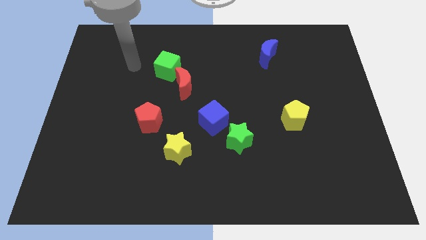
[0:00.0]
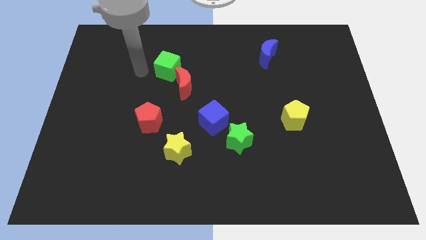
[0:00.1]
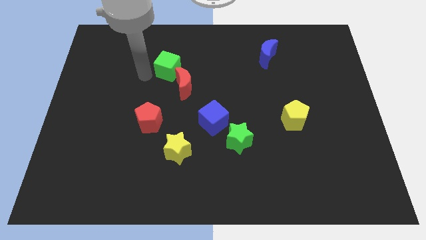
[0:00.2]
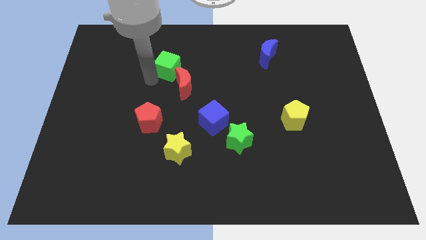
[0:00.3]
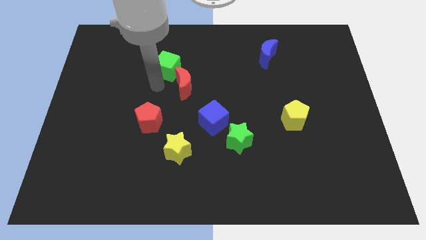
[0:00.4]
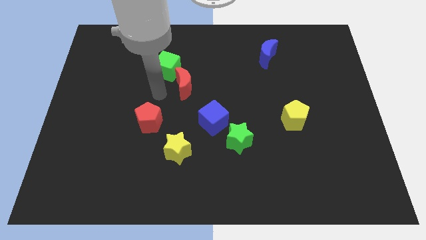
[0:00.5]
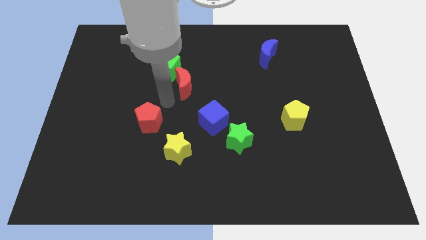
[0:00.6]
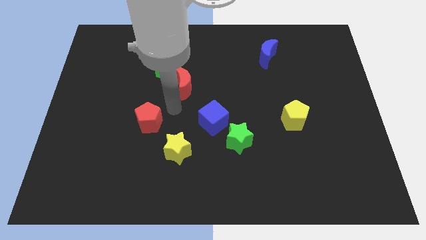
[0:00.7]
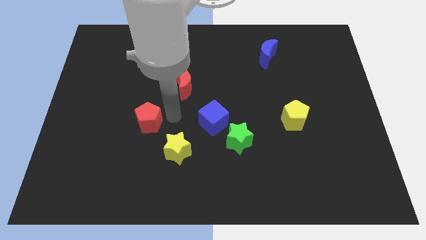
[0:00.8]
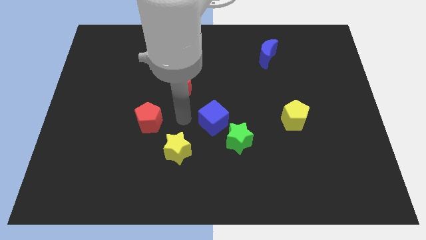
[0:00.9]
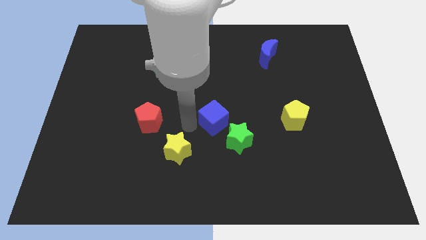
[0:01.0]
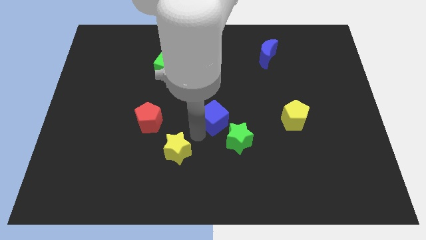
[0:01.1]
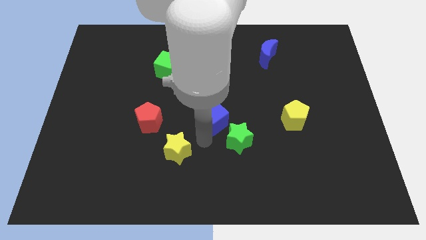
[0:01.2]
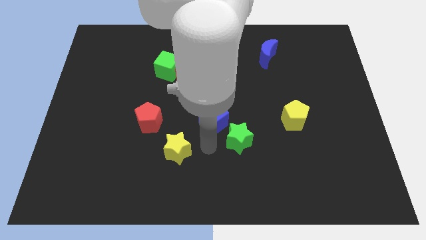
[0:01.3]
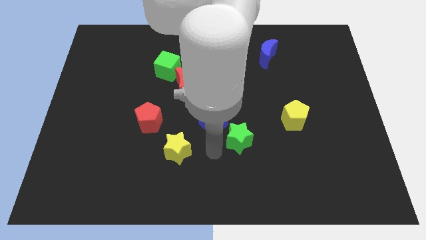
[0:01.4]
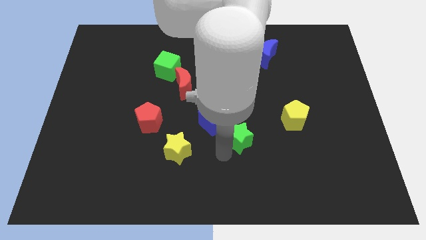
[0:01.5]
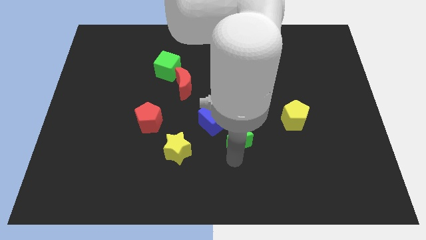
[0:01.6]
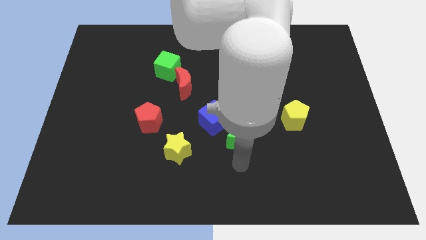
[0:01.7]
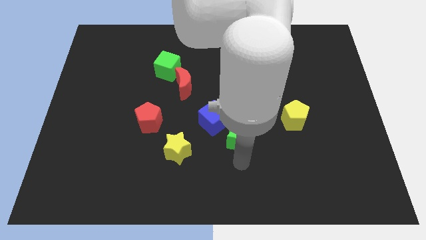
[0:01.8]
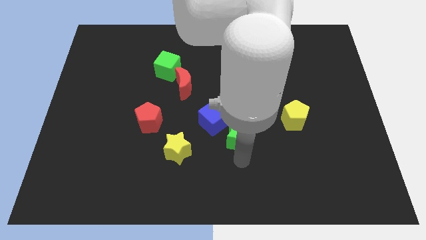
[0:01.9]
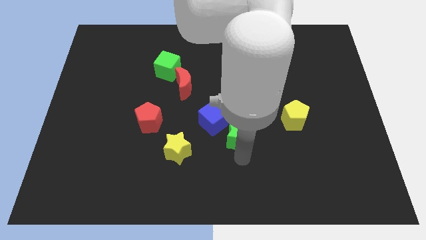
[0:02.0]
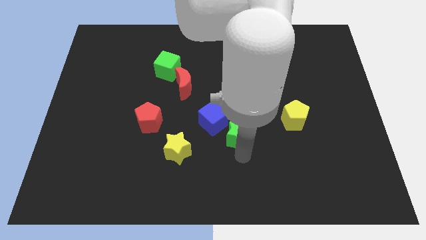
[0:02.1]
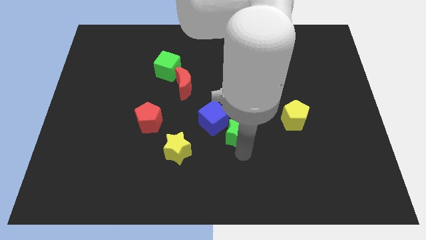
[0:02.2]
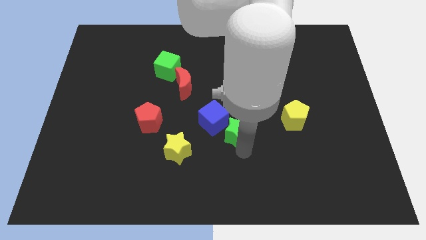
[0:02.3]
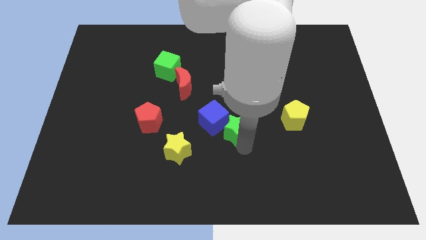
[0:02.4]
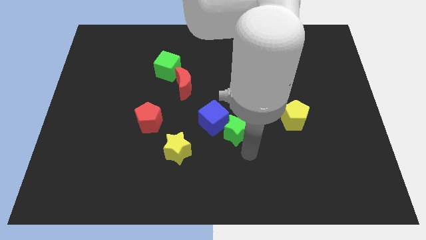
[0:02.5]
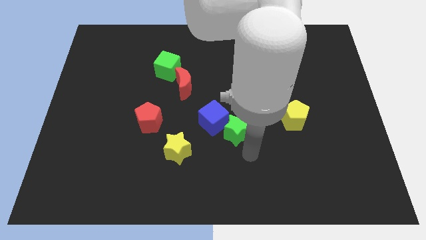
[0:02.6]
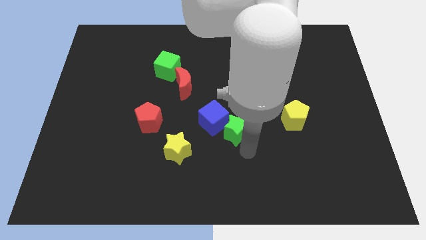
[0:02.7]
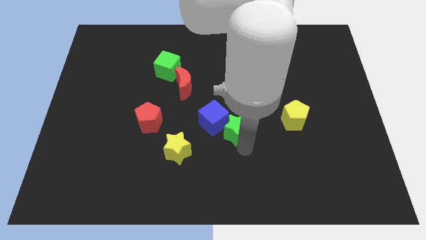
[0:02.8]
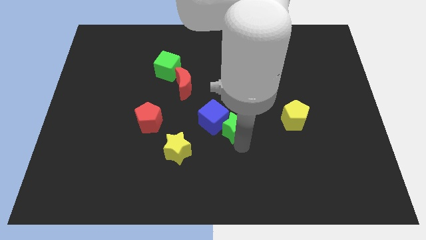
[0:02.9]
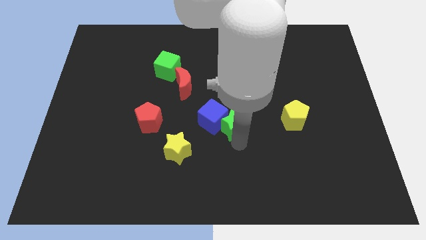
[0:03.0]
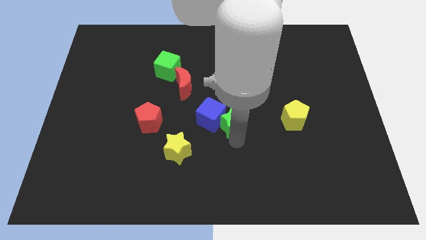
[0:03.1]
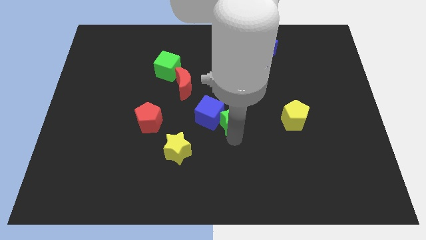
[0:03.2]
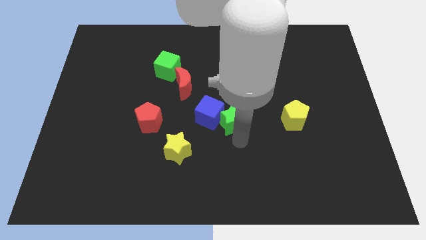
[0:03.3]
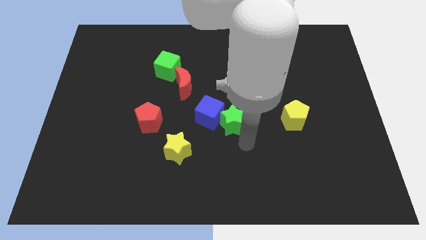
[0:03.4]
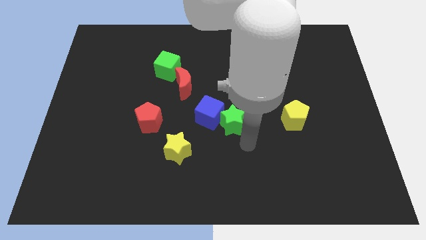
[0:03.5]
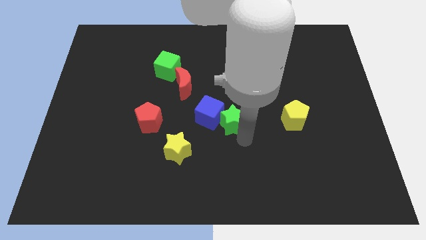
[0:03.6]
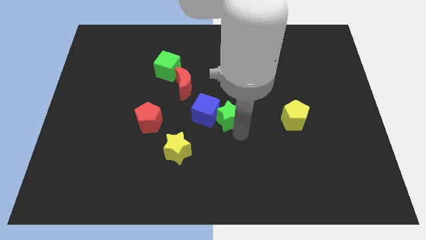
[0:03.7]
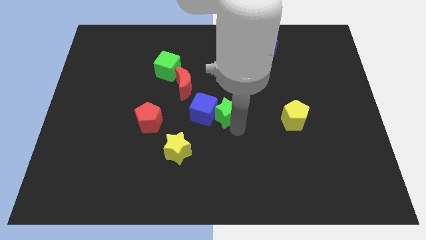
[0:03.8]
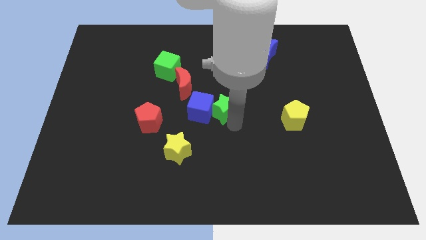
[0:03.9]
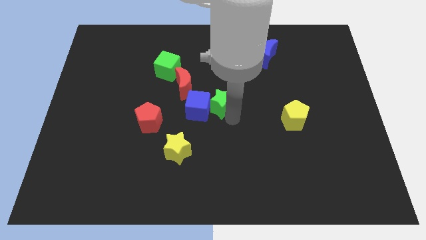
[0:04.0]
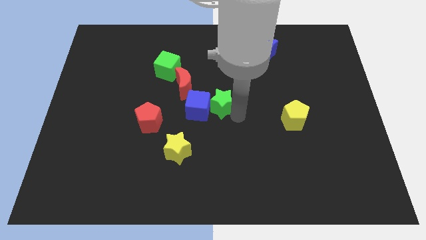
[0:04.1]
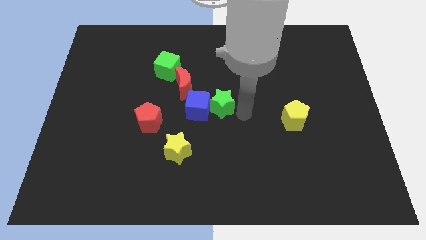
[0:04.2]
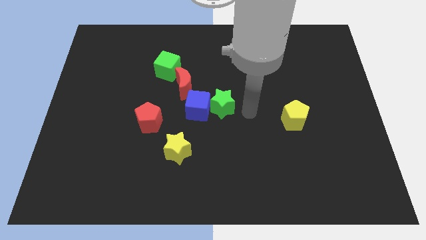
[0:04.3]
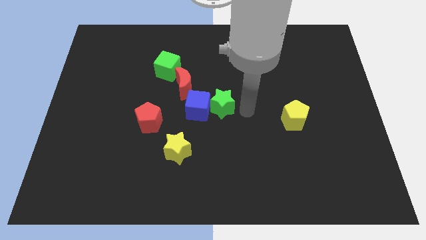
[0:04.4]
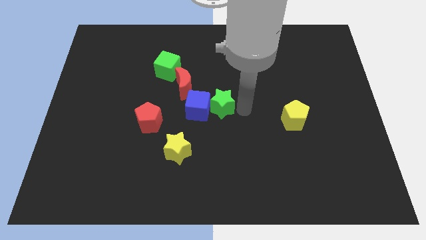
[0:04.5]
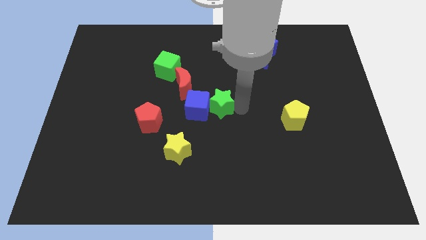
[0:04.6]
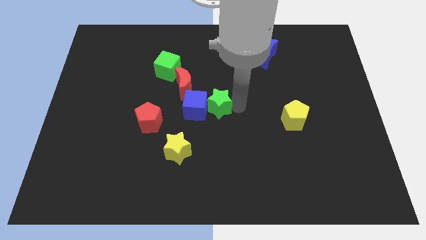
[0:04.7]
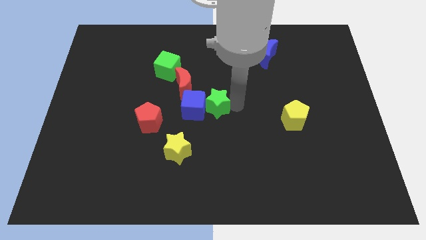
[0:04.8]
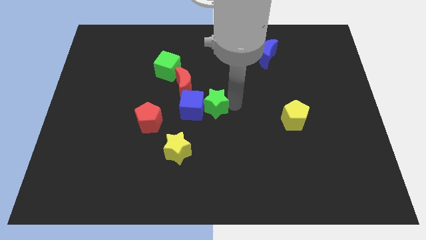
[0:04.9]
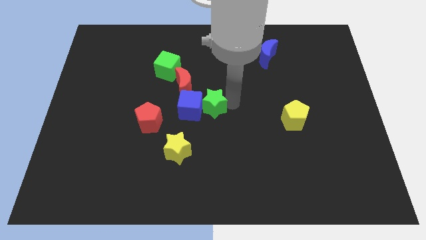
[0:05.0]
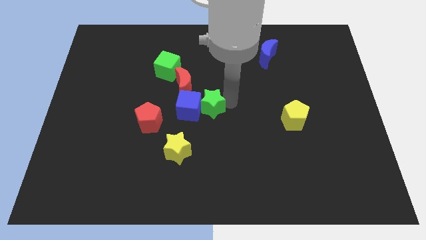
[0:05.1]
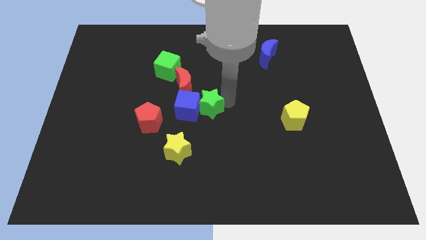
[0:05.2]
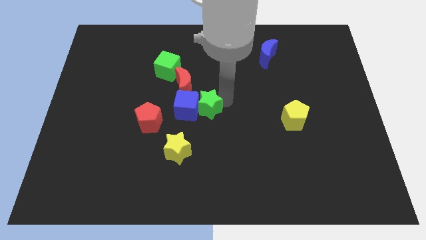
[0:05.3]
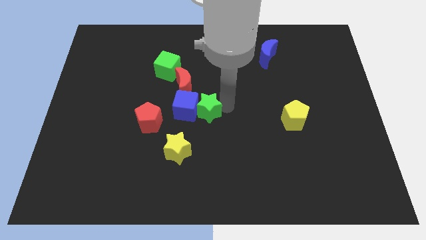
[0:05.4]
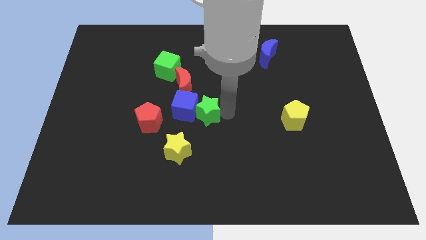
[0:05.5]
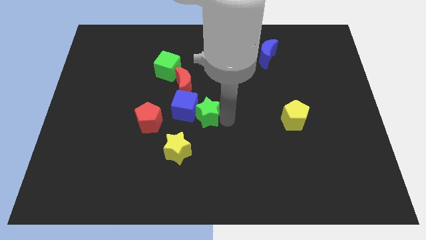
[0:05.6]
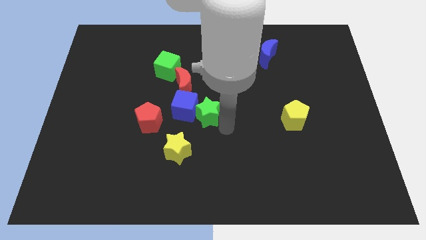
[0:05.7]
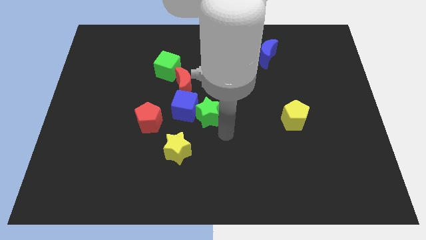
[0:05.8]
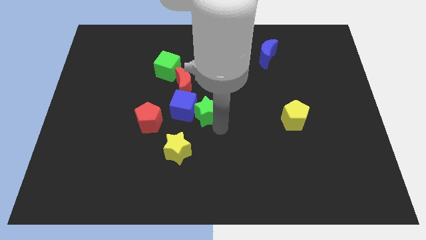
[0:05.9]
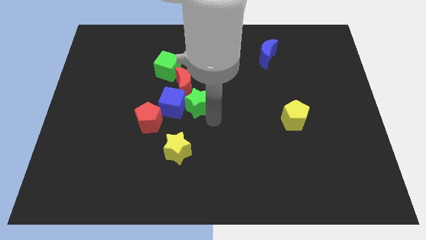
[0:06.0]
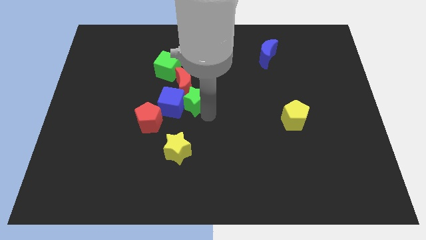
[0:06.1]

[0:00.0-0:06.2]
slide the green star close to the red moon

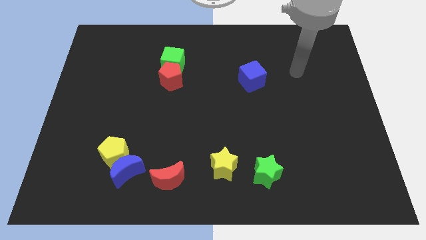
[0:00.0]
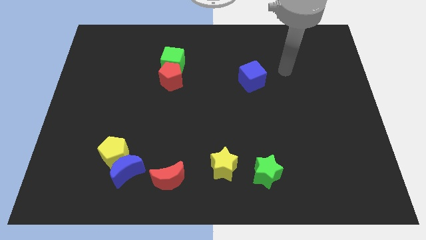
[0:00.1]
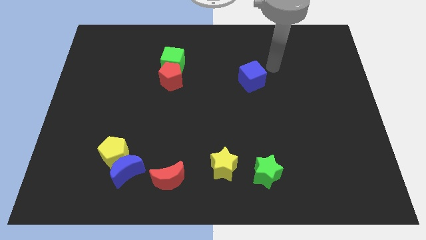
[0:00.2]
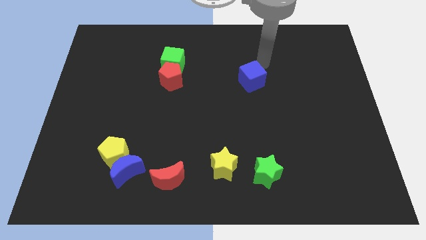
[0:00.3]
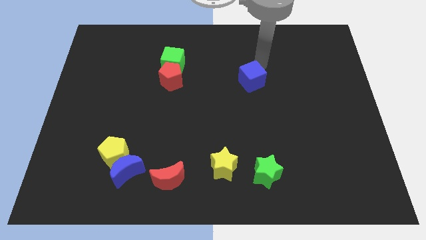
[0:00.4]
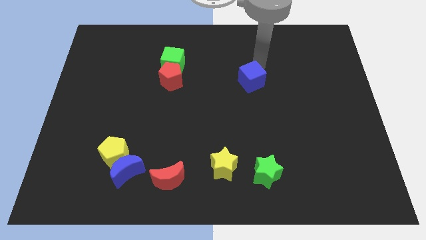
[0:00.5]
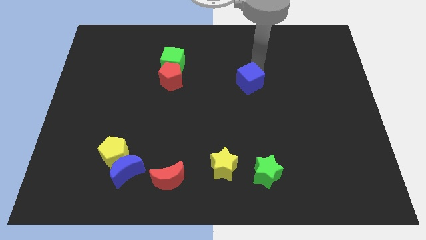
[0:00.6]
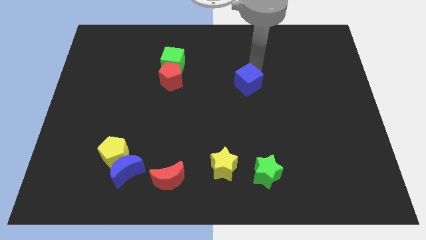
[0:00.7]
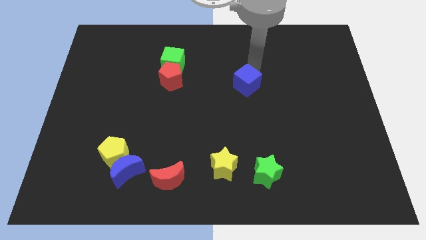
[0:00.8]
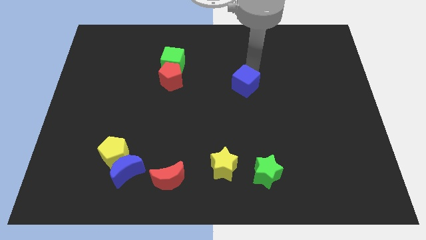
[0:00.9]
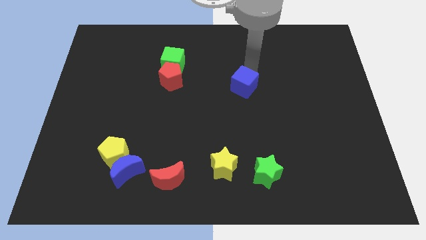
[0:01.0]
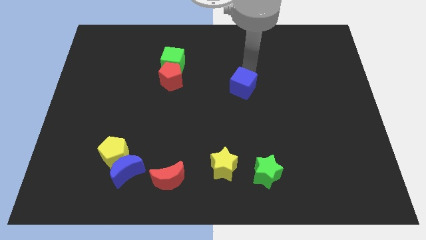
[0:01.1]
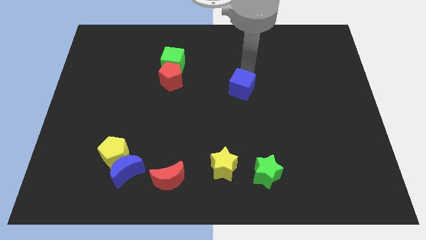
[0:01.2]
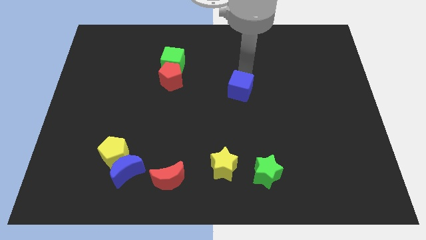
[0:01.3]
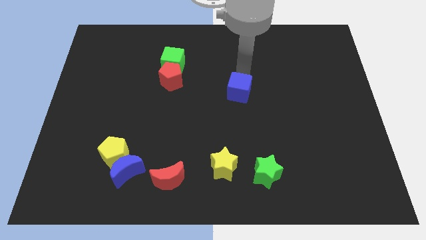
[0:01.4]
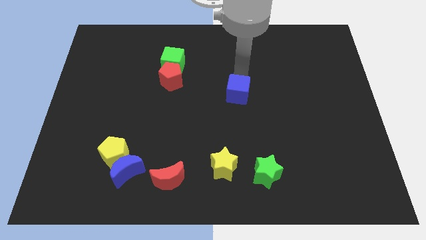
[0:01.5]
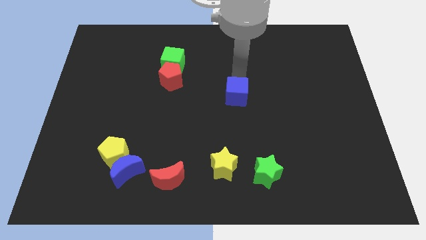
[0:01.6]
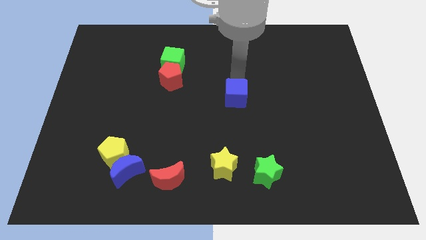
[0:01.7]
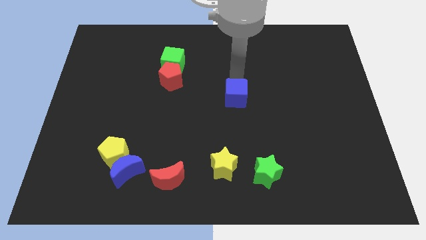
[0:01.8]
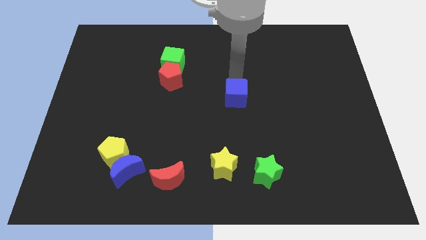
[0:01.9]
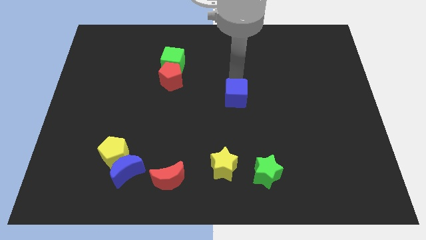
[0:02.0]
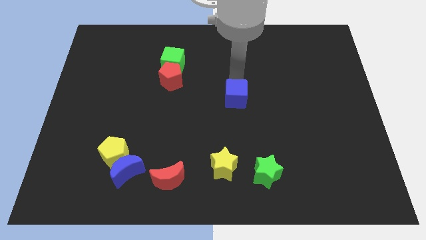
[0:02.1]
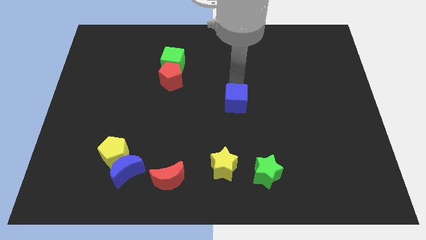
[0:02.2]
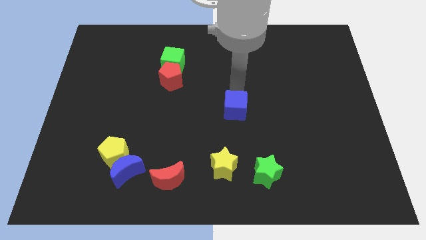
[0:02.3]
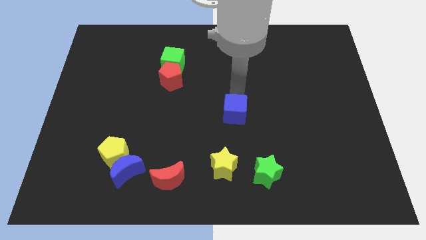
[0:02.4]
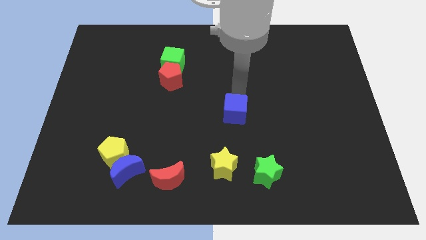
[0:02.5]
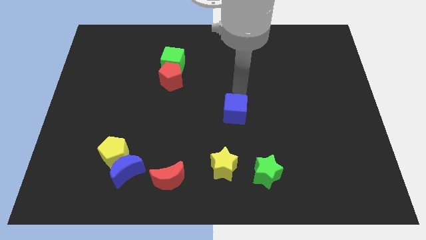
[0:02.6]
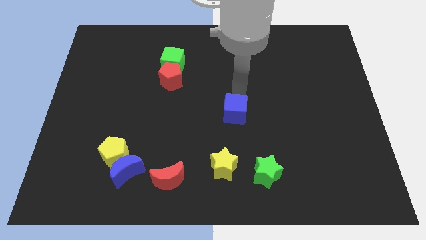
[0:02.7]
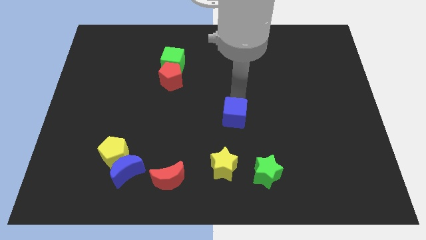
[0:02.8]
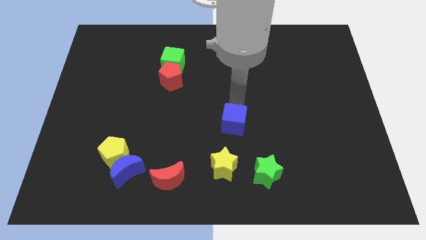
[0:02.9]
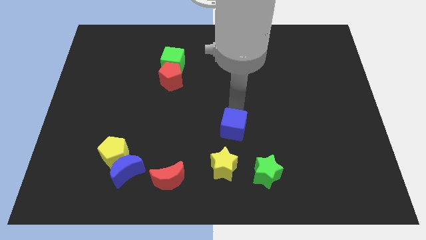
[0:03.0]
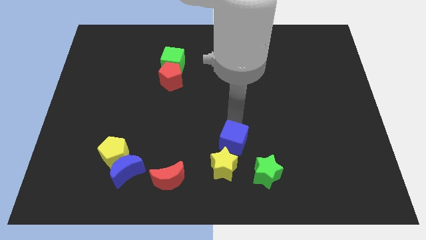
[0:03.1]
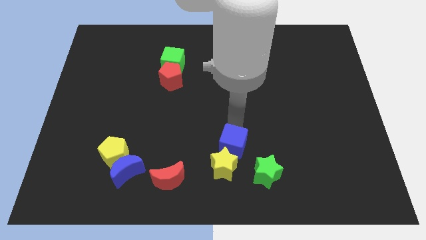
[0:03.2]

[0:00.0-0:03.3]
put the blue cube close to the yellow star
